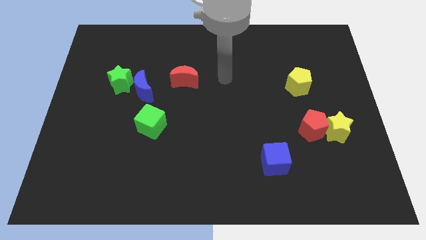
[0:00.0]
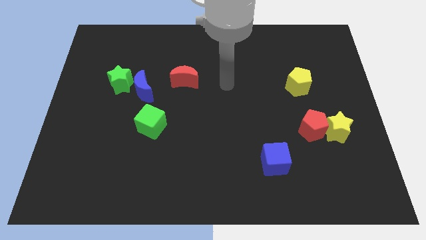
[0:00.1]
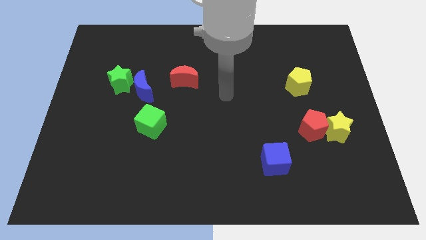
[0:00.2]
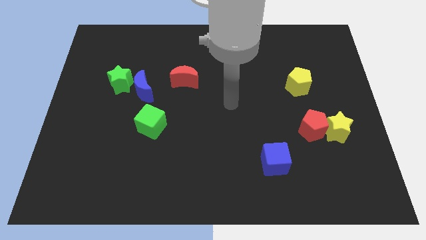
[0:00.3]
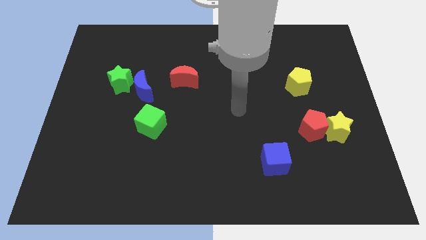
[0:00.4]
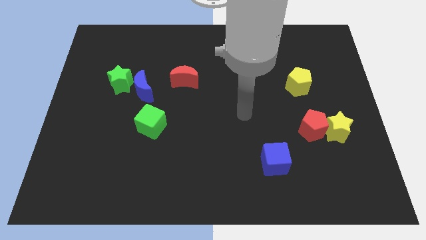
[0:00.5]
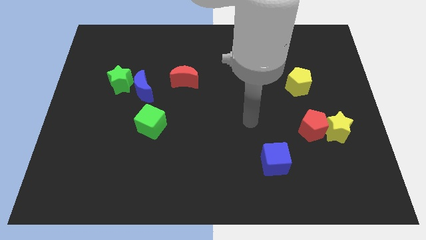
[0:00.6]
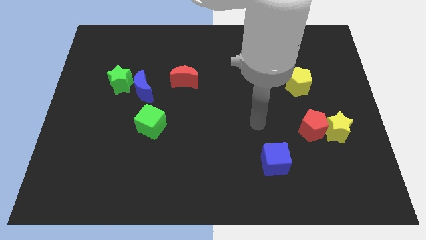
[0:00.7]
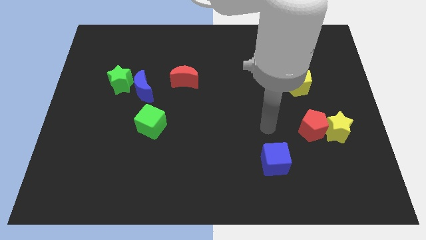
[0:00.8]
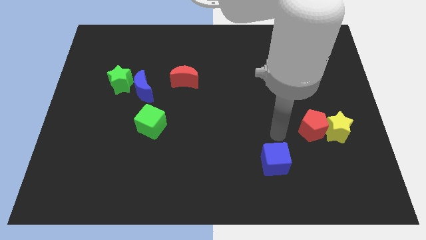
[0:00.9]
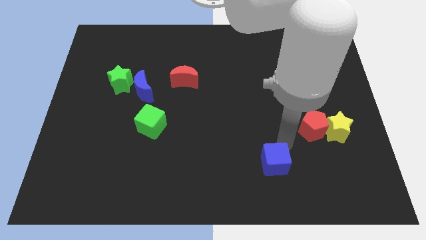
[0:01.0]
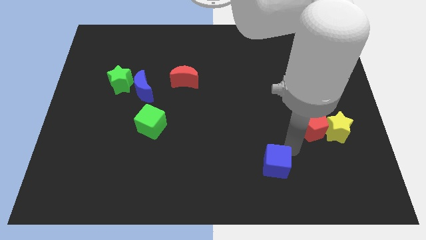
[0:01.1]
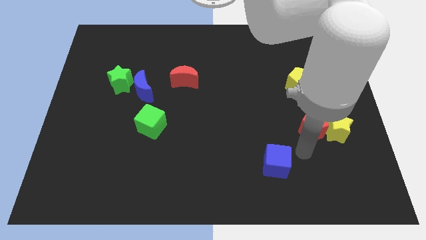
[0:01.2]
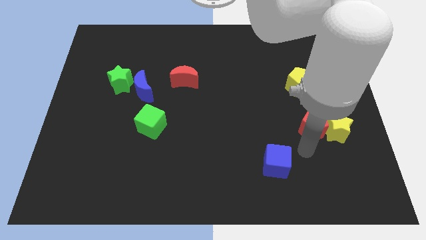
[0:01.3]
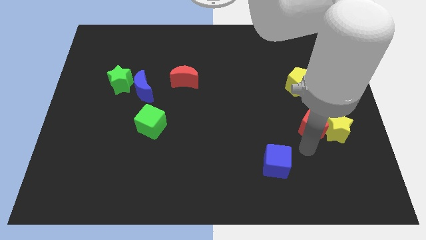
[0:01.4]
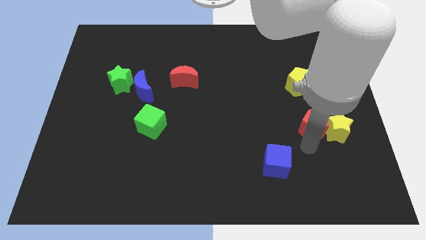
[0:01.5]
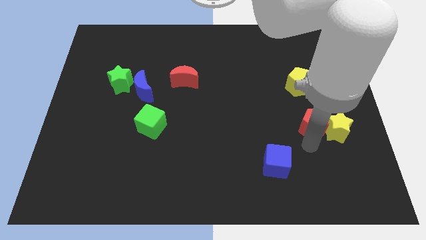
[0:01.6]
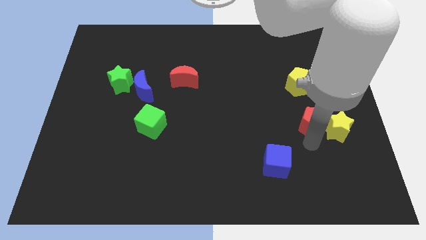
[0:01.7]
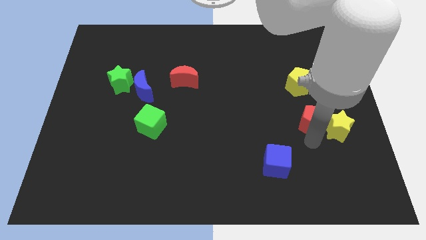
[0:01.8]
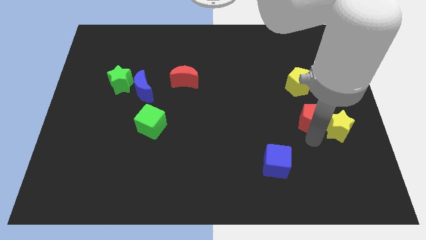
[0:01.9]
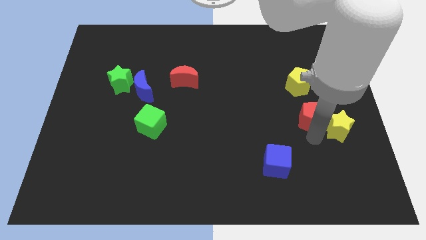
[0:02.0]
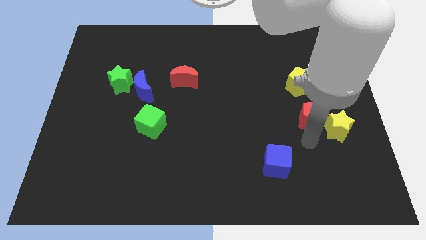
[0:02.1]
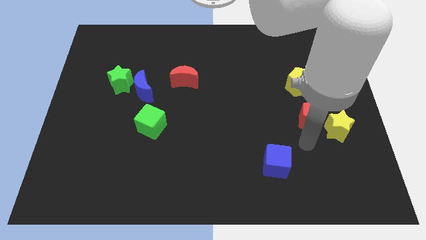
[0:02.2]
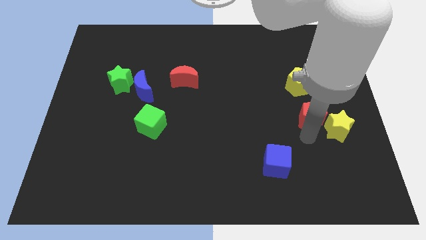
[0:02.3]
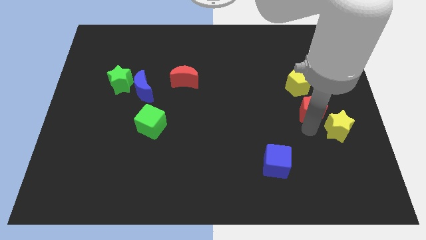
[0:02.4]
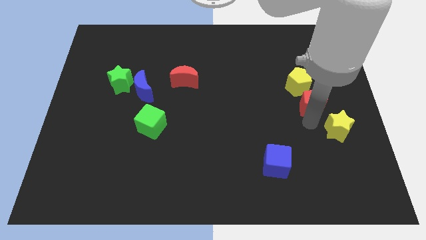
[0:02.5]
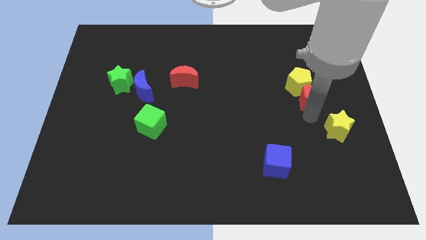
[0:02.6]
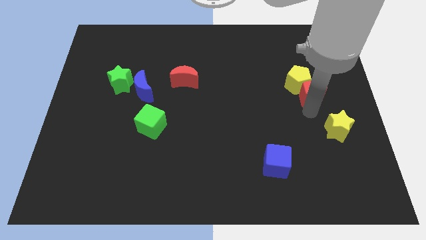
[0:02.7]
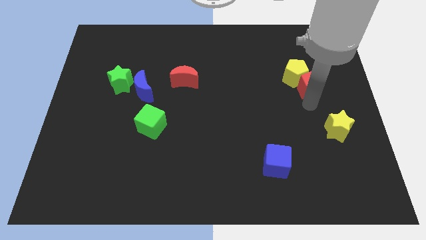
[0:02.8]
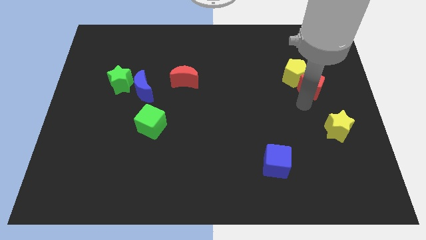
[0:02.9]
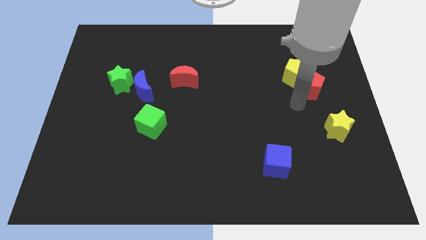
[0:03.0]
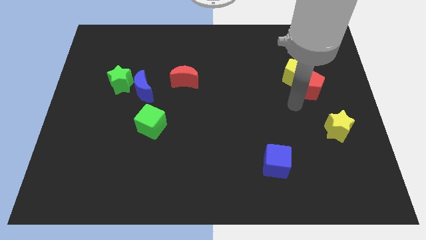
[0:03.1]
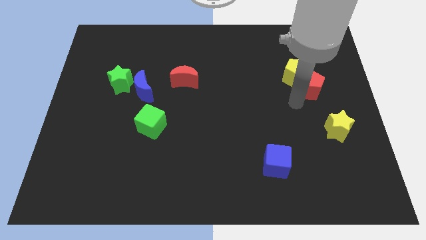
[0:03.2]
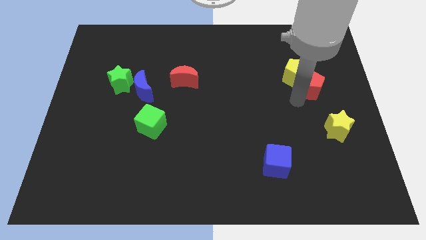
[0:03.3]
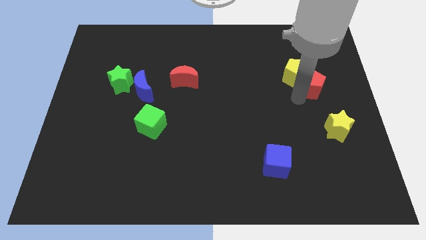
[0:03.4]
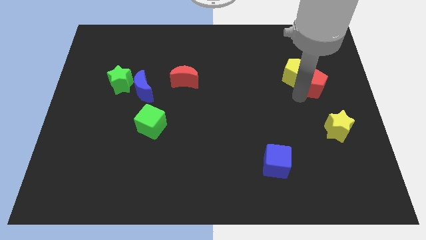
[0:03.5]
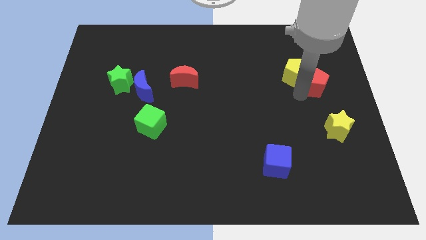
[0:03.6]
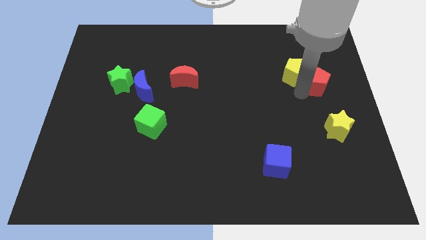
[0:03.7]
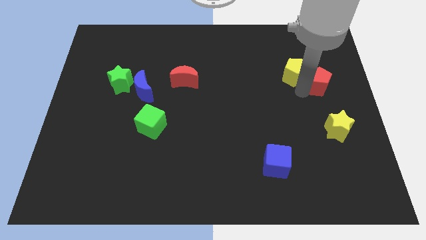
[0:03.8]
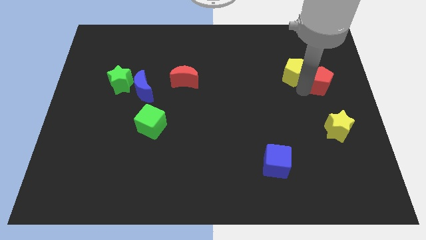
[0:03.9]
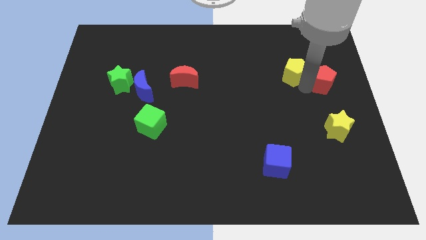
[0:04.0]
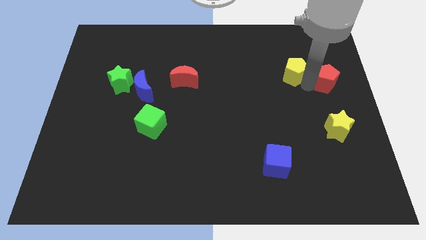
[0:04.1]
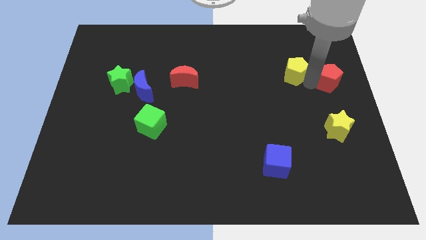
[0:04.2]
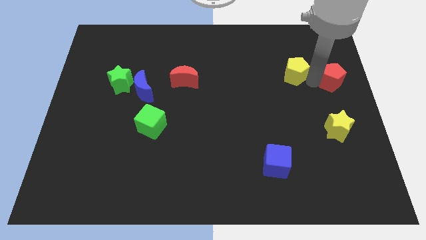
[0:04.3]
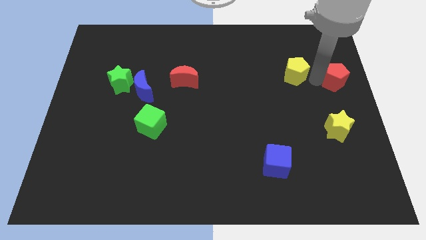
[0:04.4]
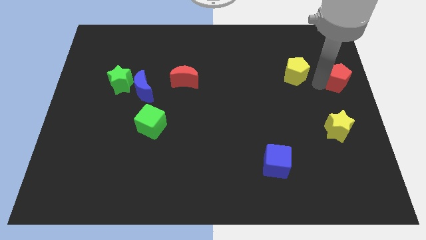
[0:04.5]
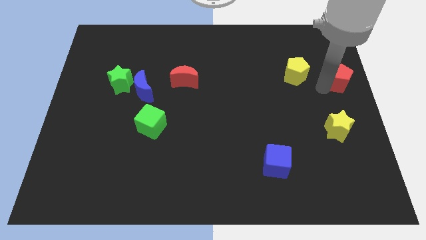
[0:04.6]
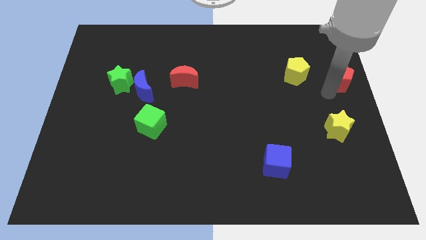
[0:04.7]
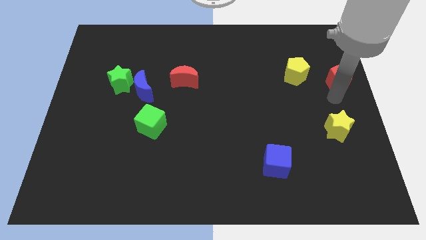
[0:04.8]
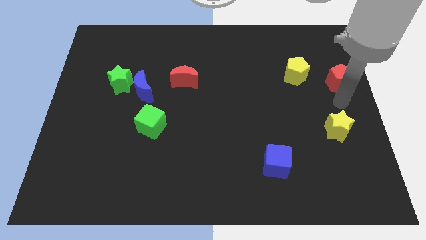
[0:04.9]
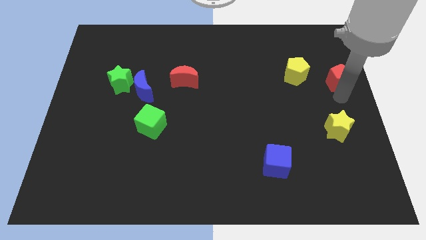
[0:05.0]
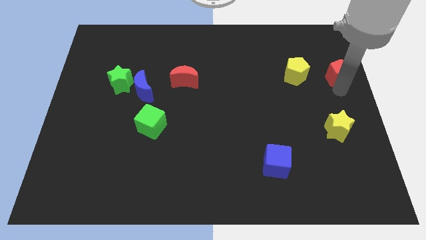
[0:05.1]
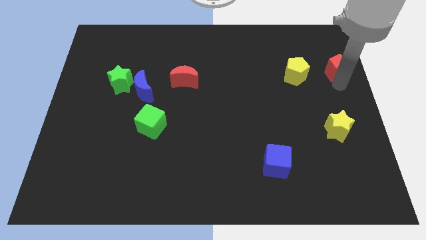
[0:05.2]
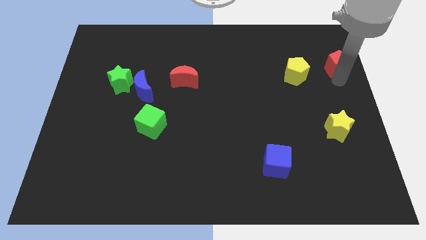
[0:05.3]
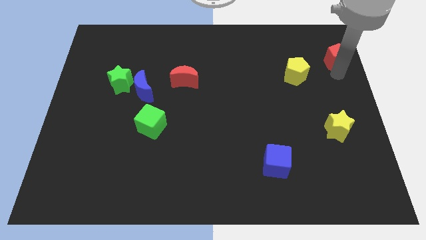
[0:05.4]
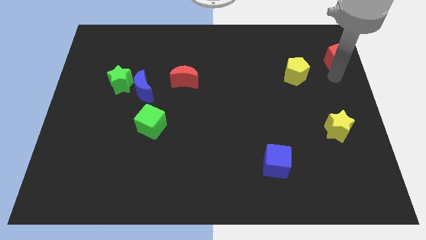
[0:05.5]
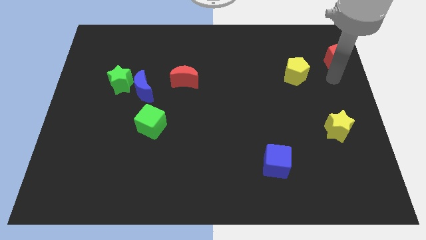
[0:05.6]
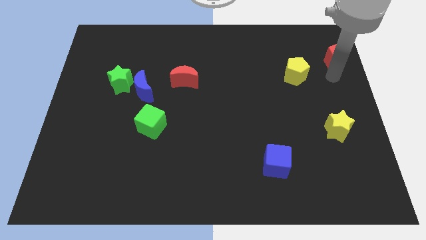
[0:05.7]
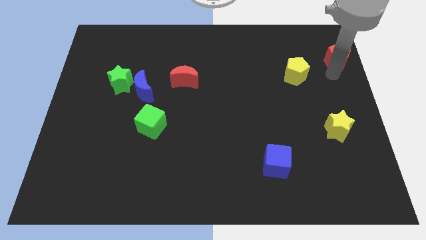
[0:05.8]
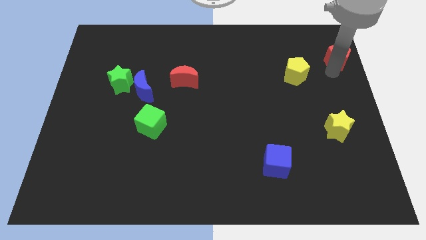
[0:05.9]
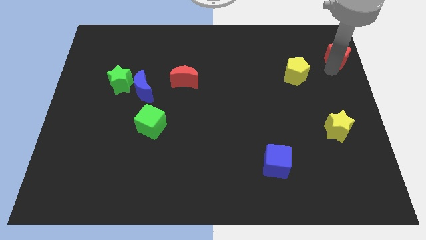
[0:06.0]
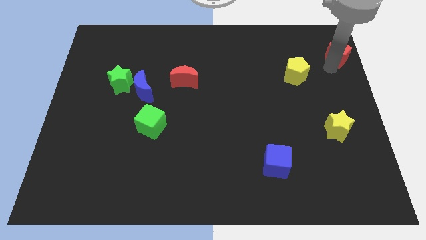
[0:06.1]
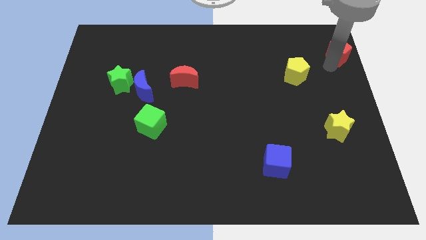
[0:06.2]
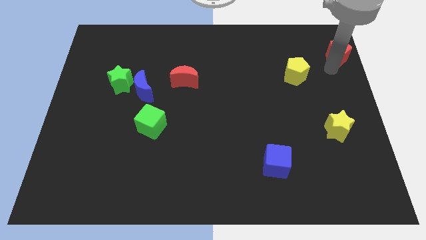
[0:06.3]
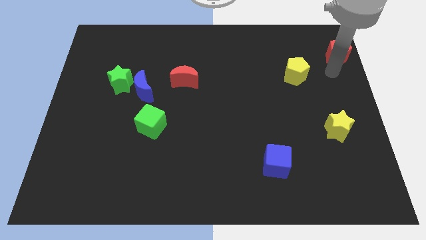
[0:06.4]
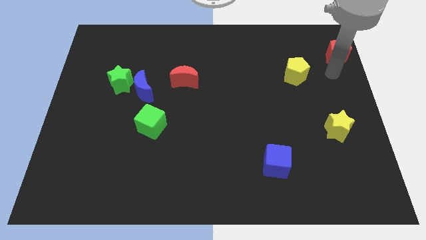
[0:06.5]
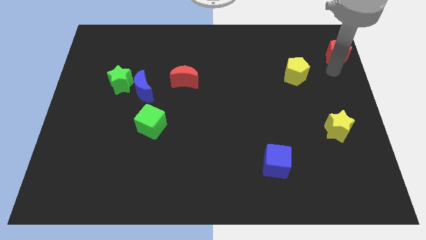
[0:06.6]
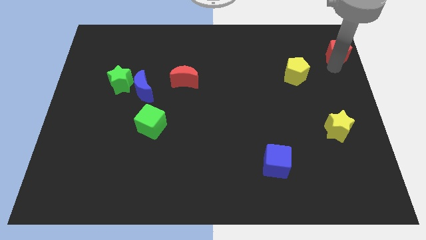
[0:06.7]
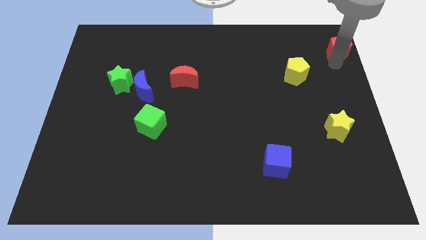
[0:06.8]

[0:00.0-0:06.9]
slide the red pentagon to the upper right corner
